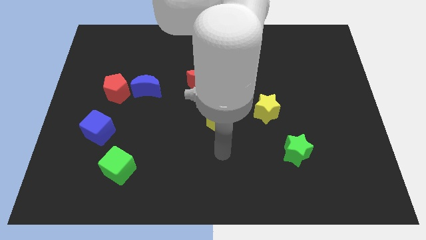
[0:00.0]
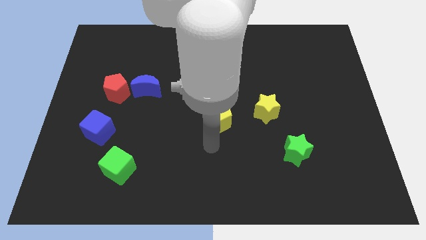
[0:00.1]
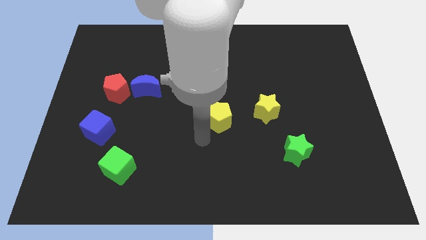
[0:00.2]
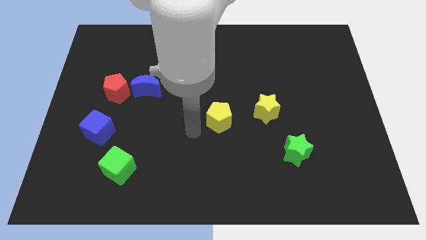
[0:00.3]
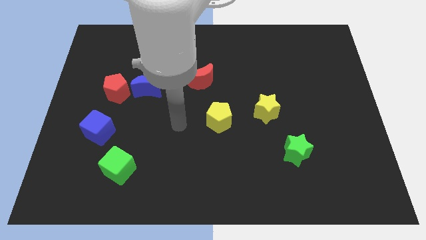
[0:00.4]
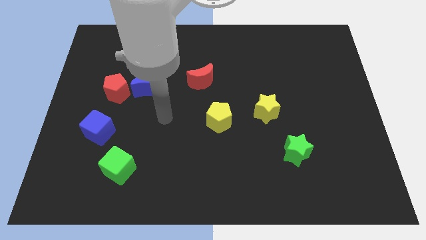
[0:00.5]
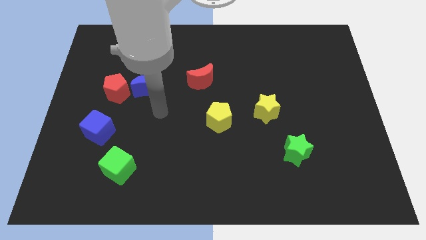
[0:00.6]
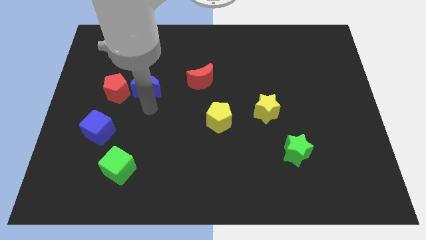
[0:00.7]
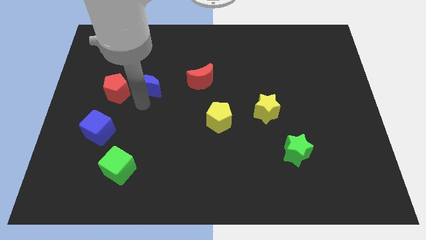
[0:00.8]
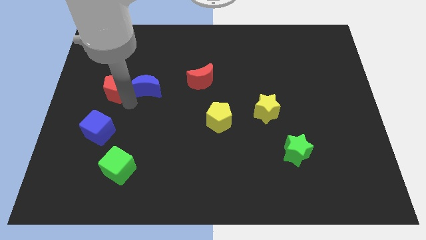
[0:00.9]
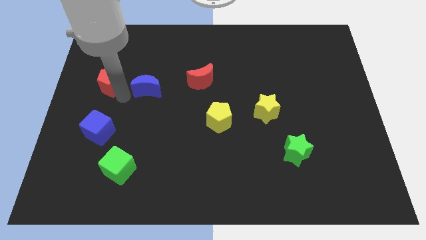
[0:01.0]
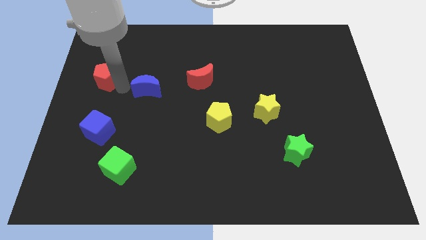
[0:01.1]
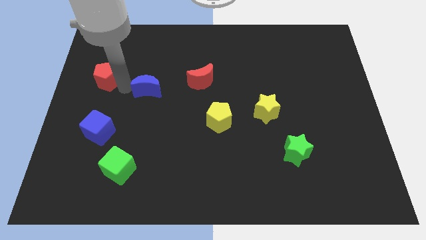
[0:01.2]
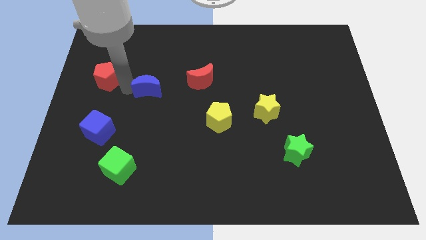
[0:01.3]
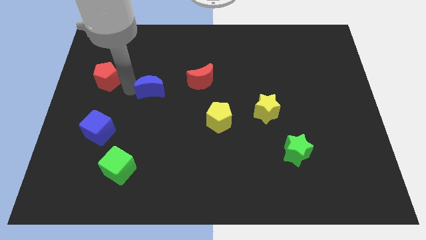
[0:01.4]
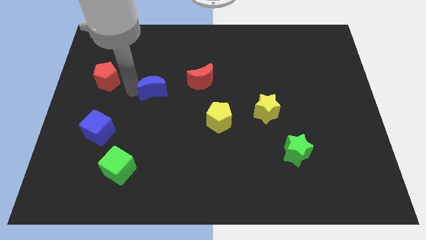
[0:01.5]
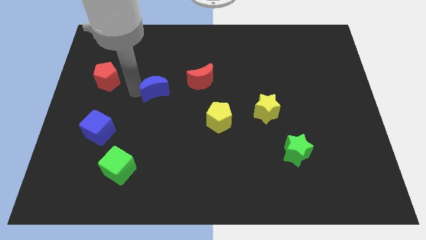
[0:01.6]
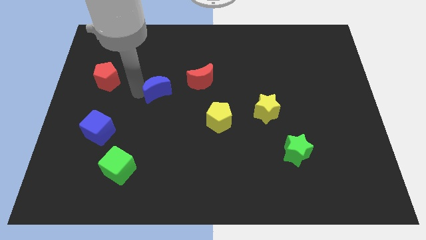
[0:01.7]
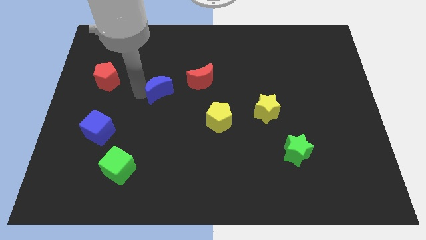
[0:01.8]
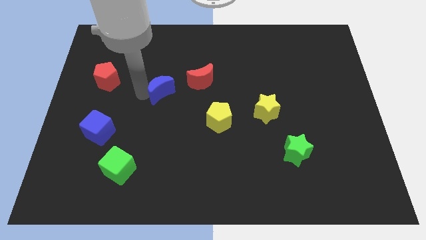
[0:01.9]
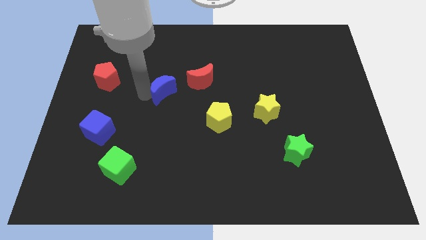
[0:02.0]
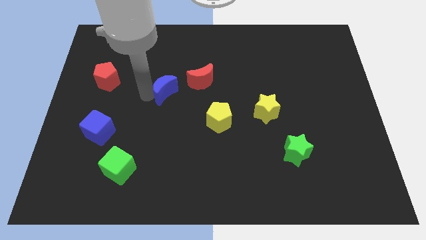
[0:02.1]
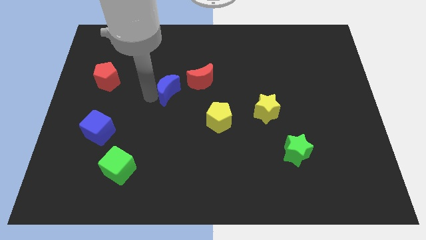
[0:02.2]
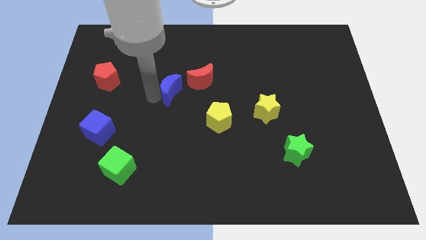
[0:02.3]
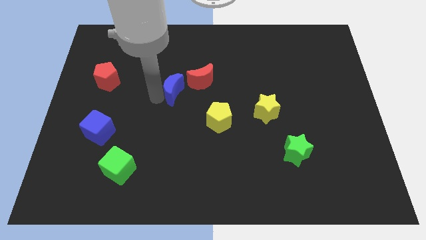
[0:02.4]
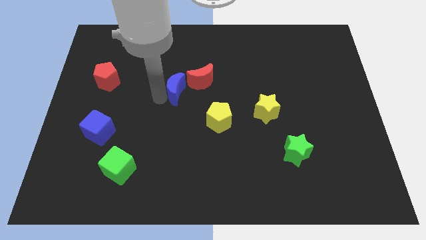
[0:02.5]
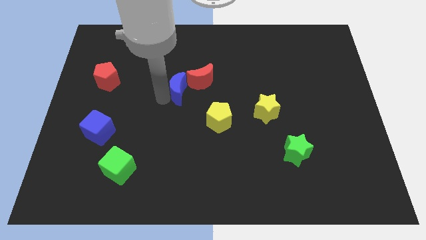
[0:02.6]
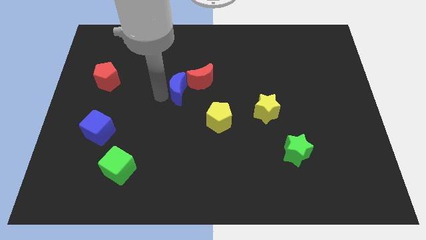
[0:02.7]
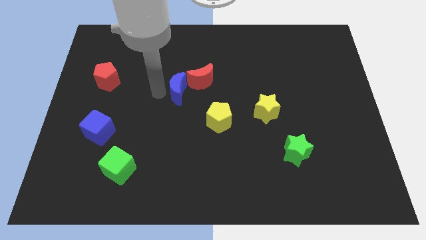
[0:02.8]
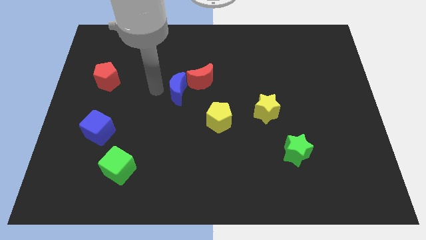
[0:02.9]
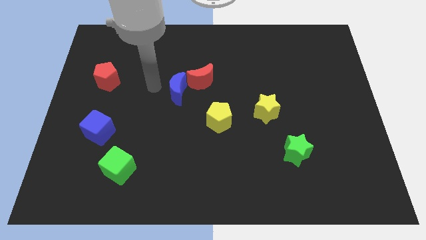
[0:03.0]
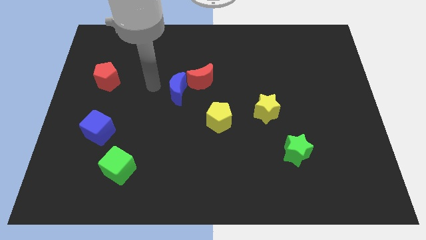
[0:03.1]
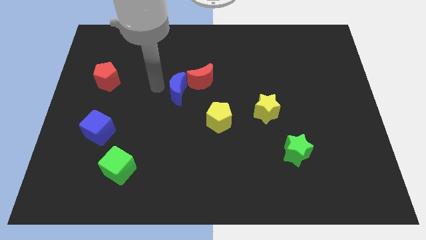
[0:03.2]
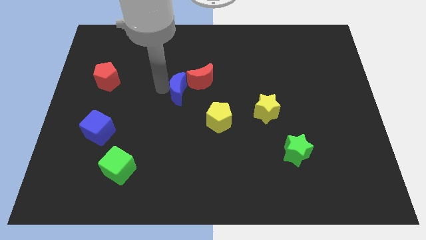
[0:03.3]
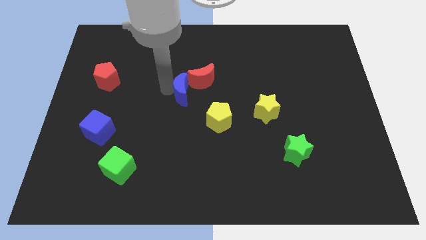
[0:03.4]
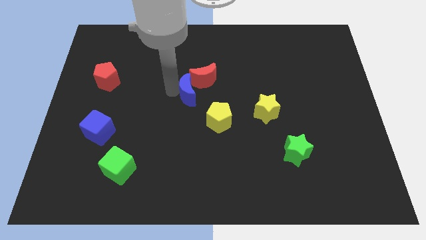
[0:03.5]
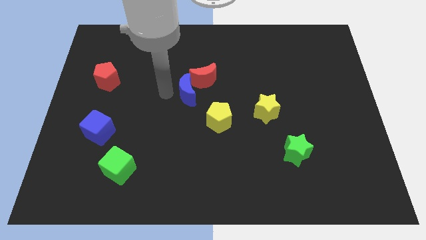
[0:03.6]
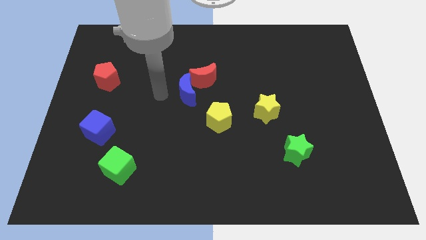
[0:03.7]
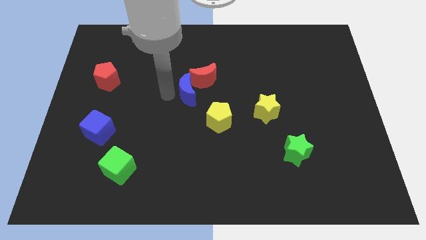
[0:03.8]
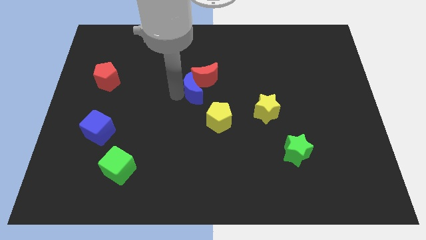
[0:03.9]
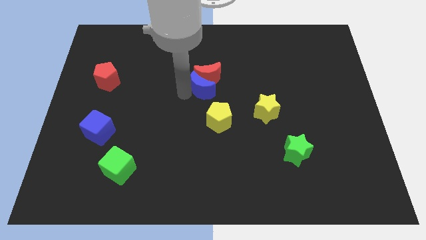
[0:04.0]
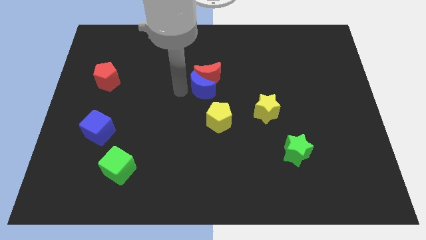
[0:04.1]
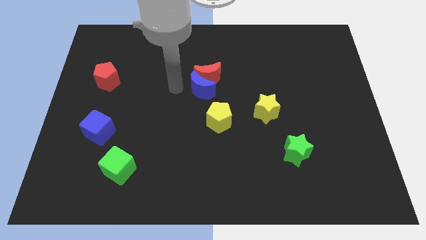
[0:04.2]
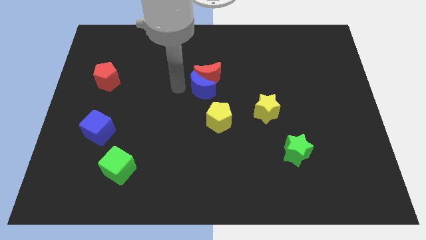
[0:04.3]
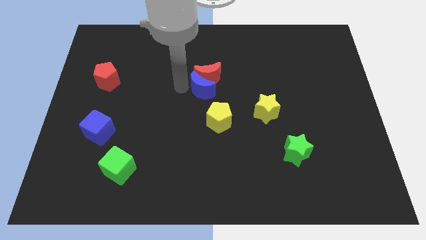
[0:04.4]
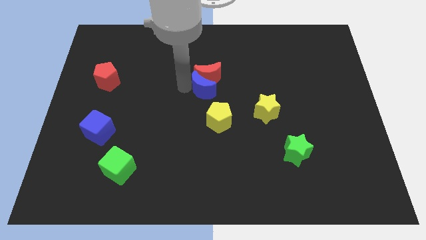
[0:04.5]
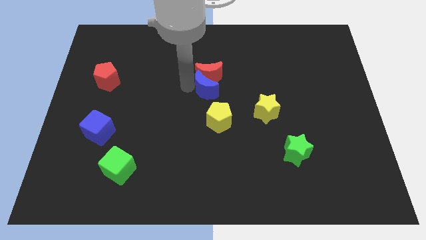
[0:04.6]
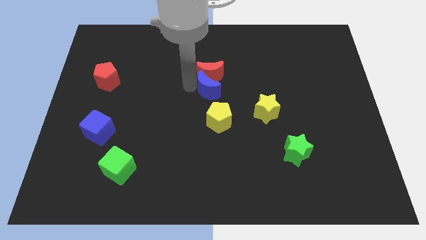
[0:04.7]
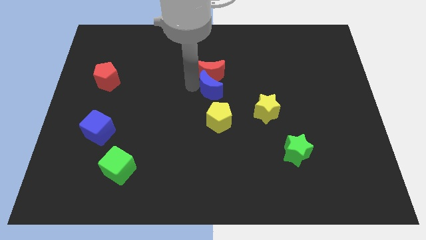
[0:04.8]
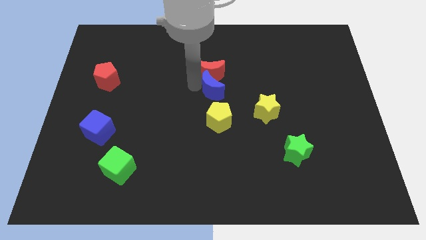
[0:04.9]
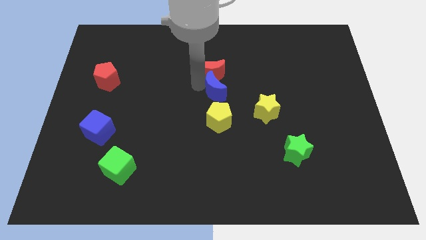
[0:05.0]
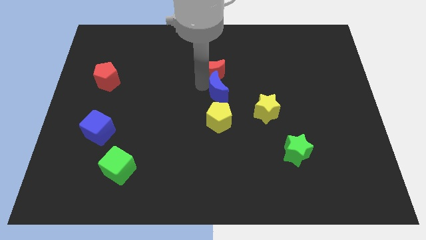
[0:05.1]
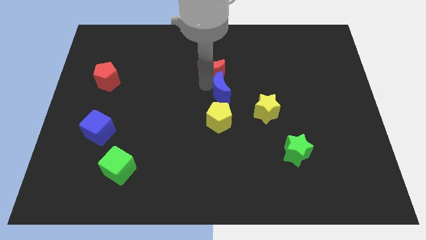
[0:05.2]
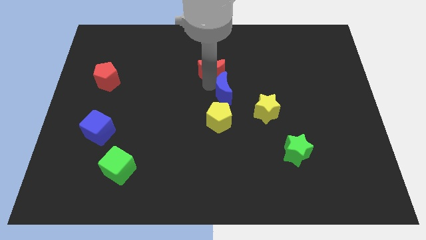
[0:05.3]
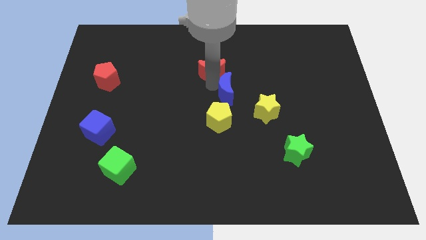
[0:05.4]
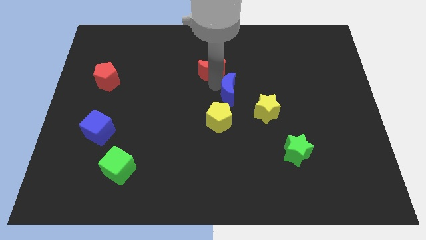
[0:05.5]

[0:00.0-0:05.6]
push the blue moon right

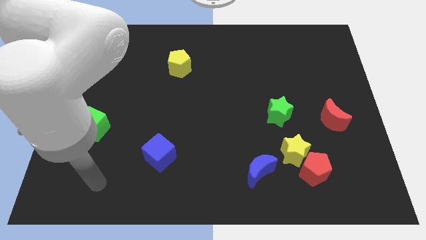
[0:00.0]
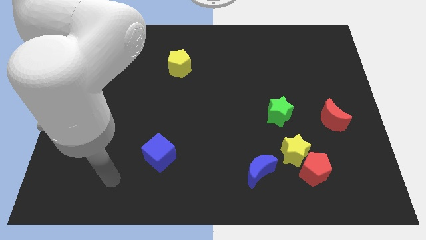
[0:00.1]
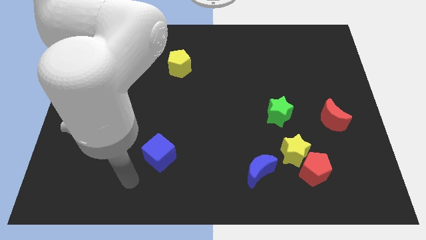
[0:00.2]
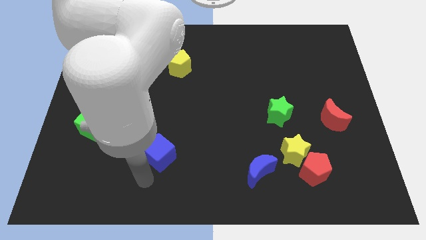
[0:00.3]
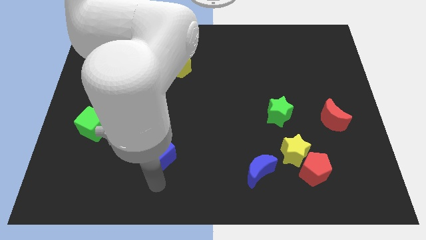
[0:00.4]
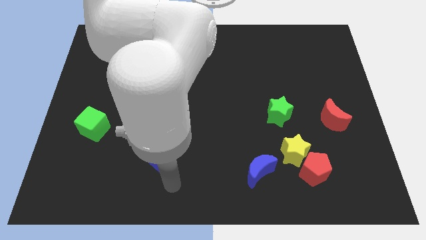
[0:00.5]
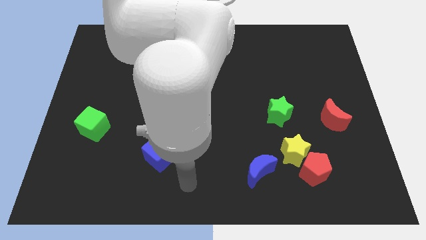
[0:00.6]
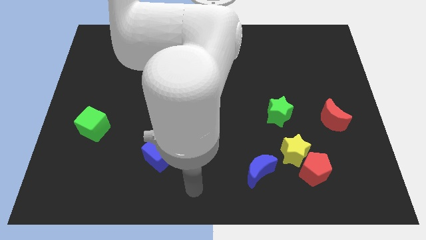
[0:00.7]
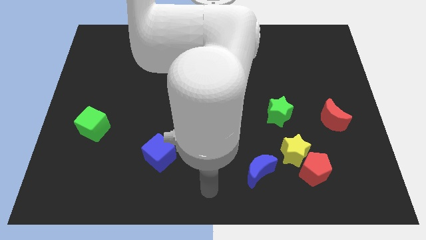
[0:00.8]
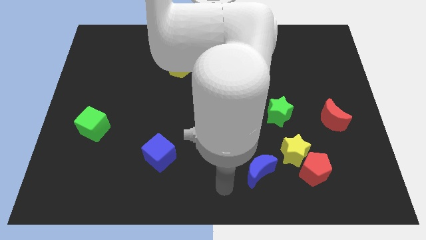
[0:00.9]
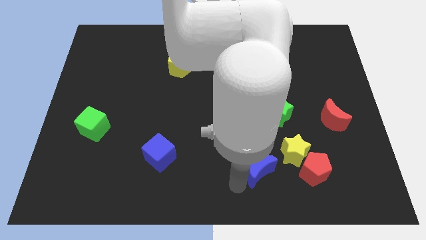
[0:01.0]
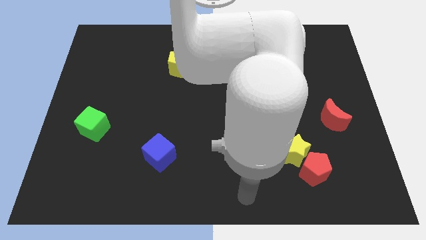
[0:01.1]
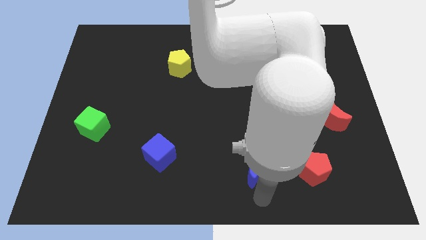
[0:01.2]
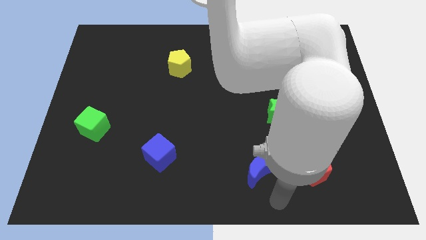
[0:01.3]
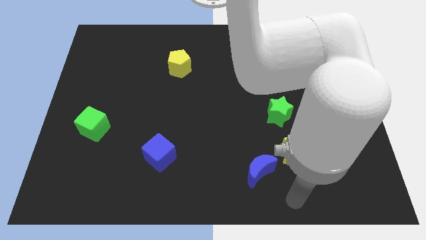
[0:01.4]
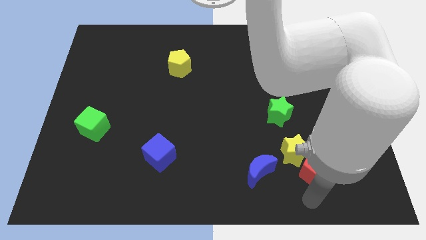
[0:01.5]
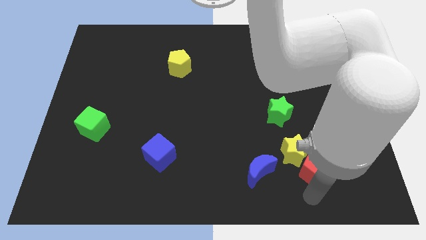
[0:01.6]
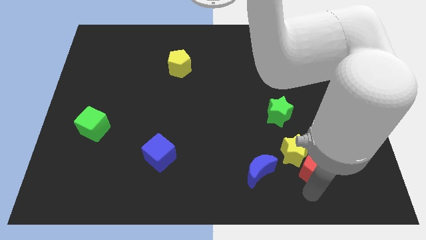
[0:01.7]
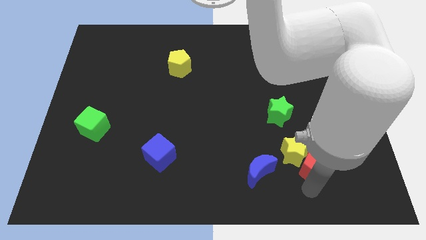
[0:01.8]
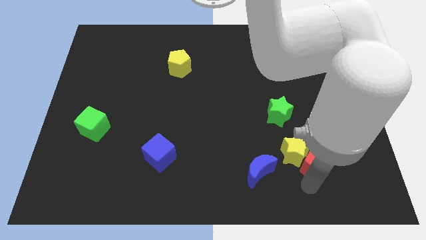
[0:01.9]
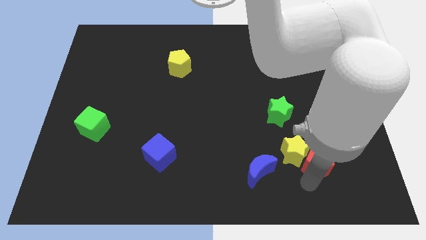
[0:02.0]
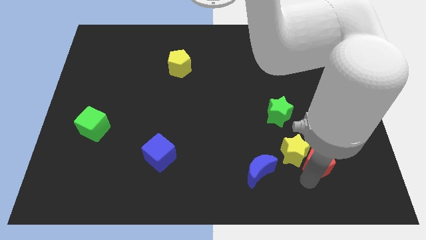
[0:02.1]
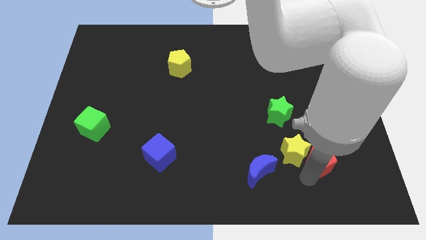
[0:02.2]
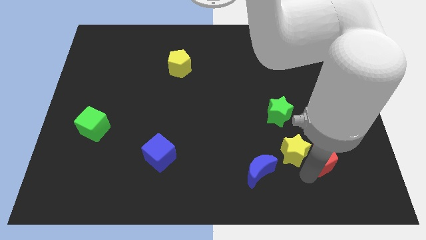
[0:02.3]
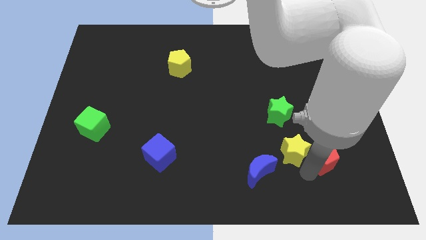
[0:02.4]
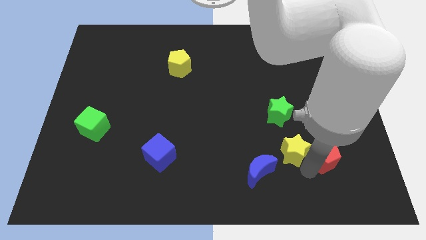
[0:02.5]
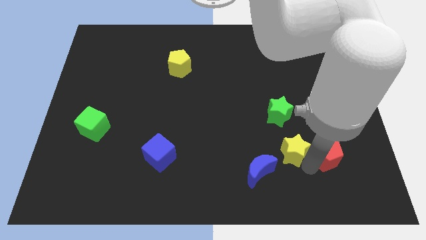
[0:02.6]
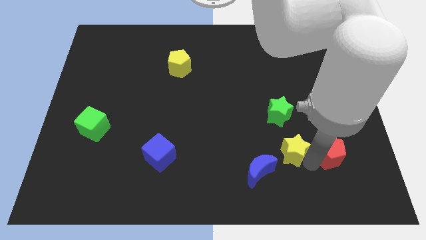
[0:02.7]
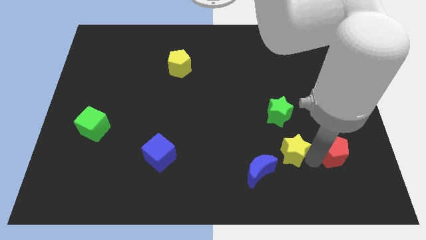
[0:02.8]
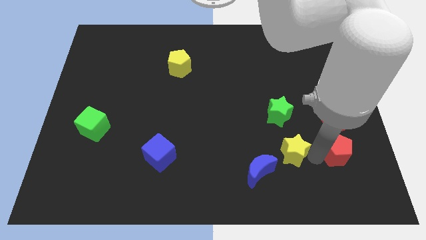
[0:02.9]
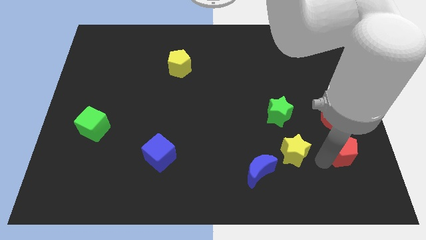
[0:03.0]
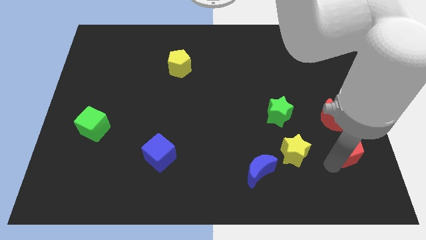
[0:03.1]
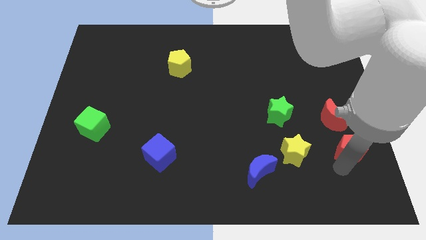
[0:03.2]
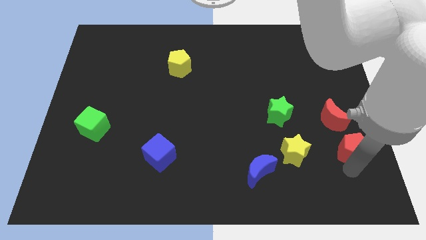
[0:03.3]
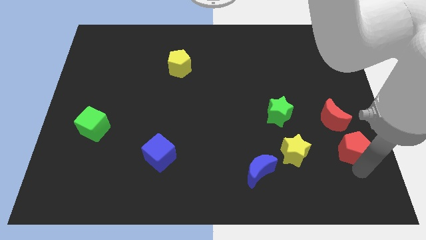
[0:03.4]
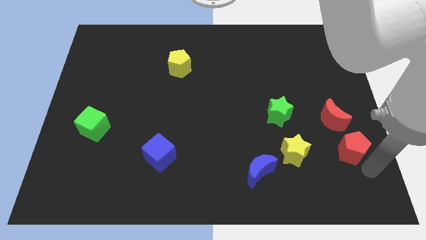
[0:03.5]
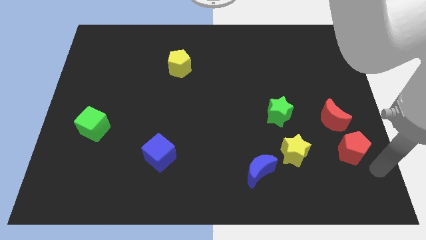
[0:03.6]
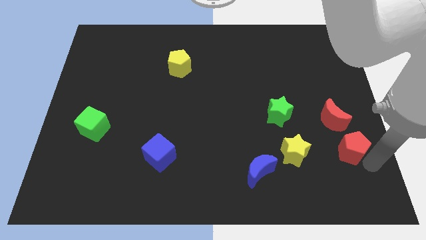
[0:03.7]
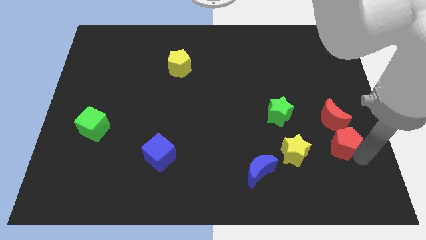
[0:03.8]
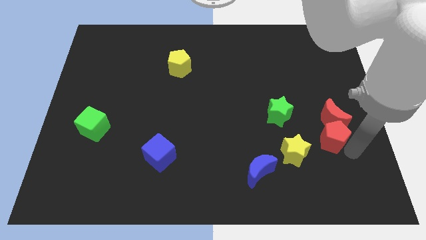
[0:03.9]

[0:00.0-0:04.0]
slide the red pentagon upwards a little
